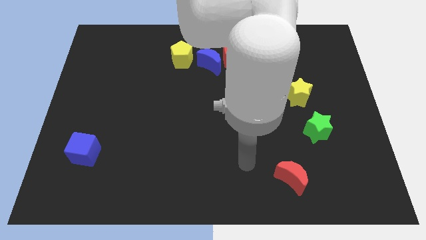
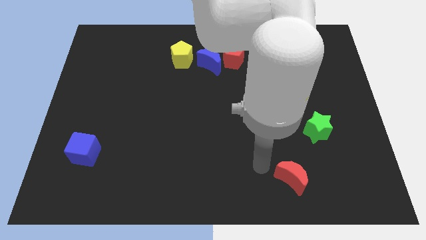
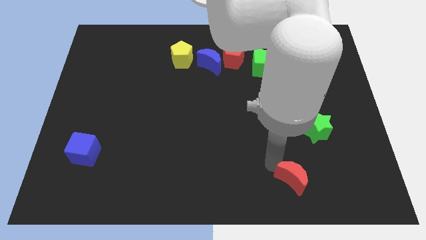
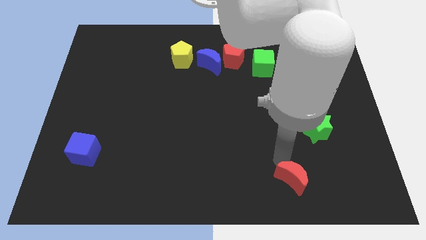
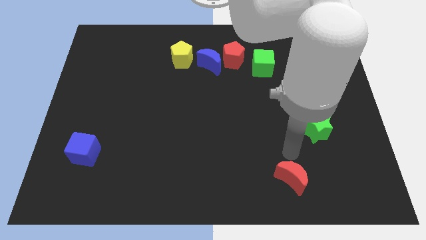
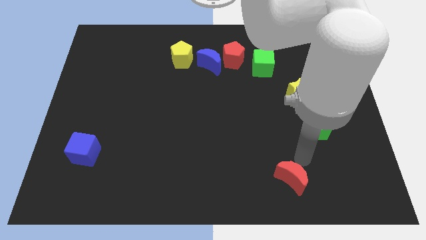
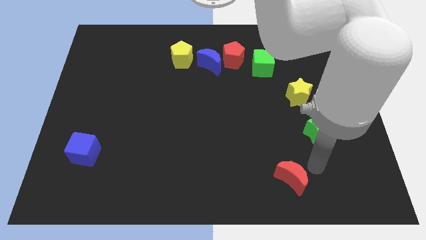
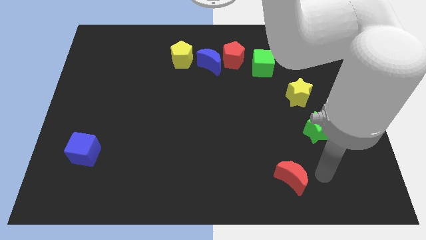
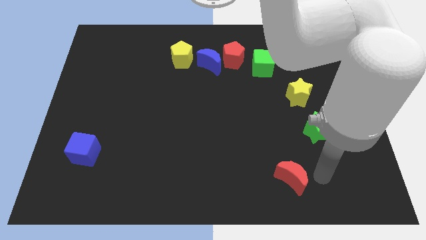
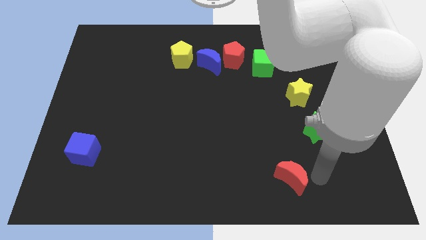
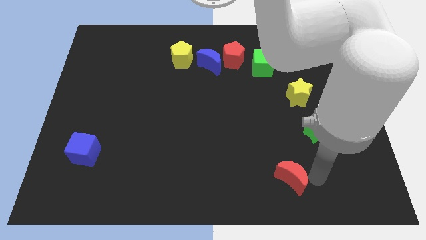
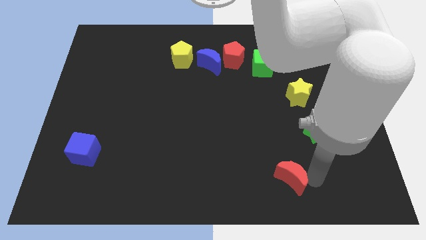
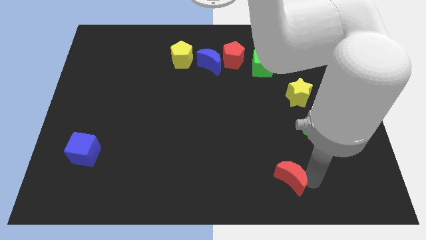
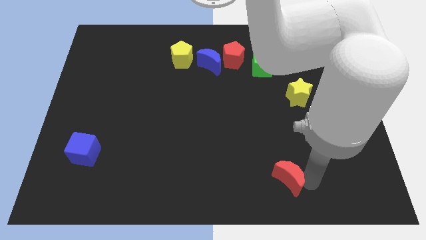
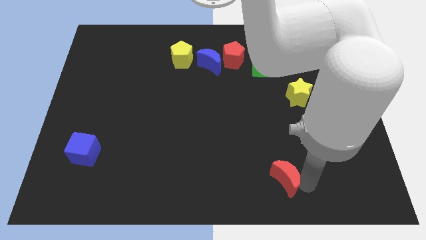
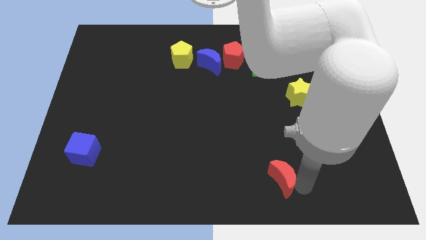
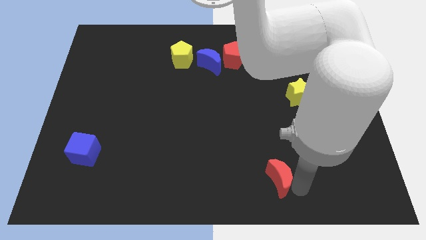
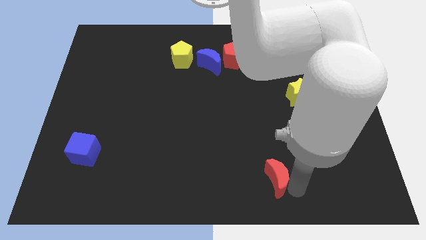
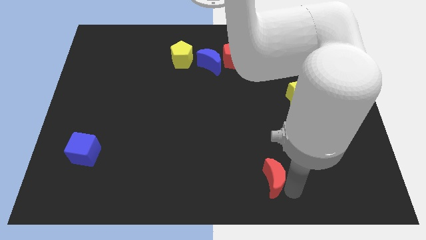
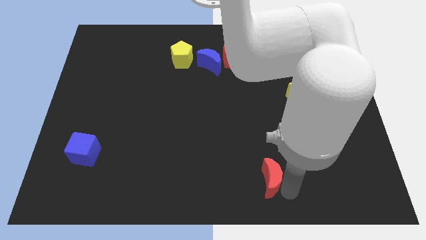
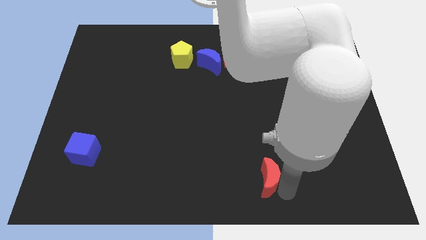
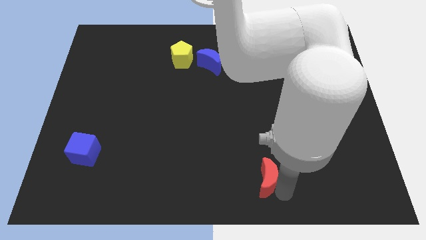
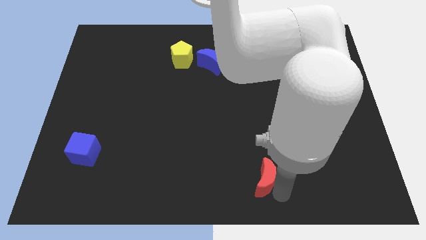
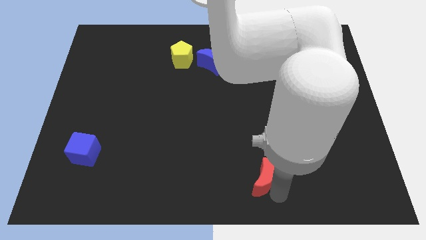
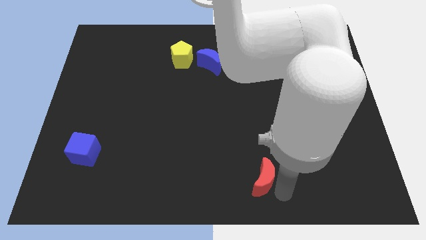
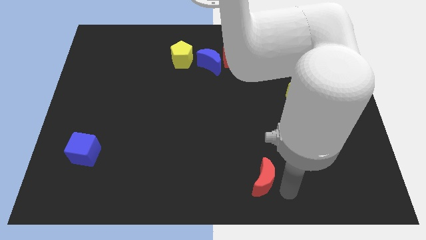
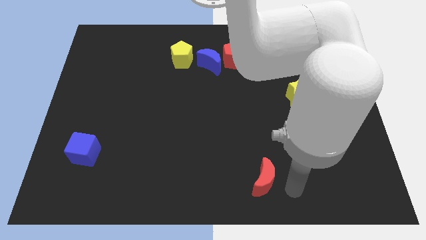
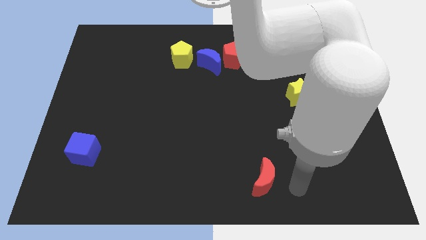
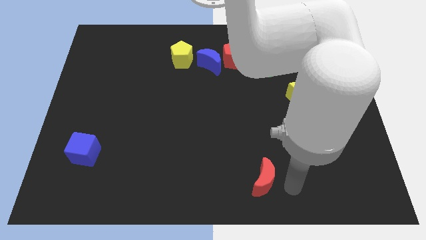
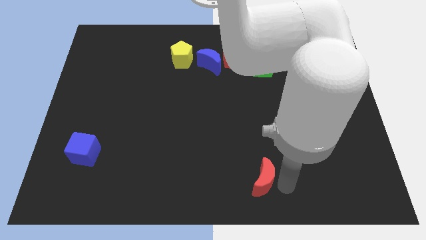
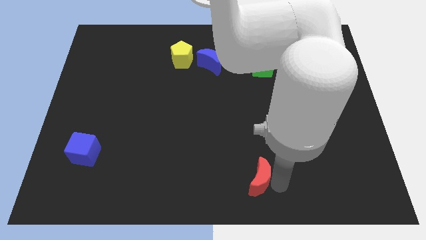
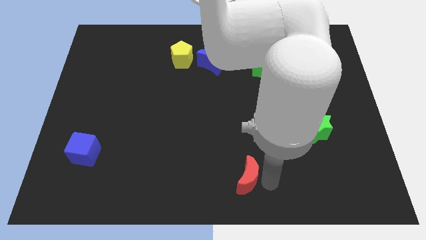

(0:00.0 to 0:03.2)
slide the red moon somewhat left

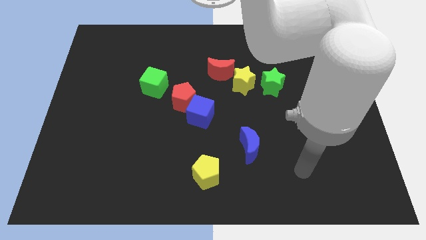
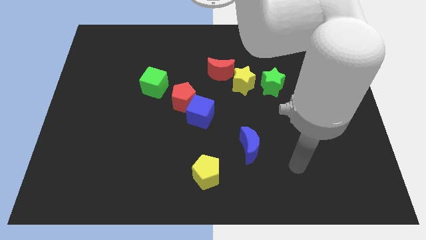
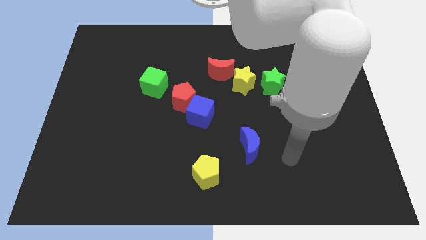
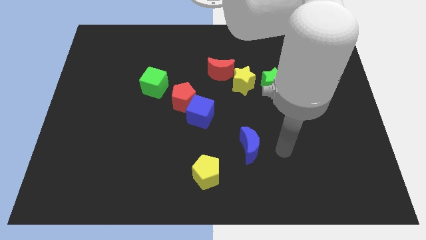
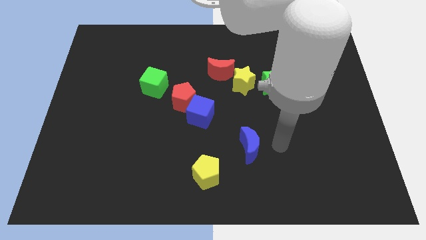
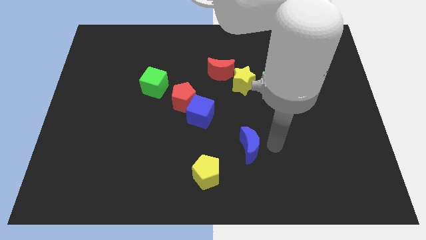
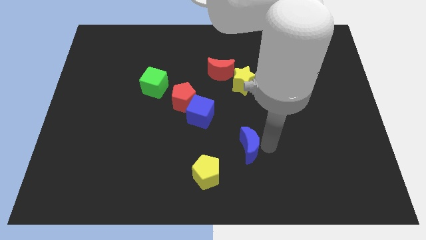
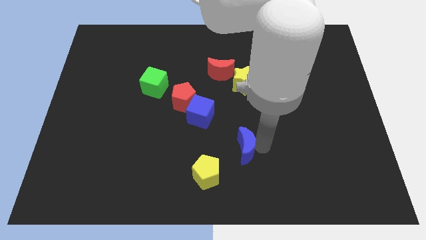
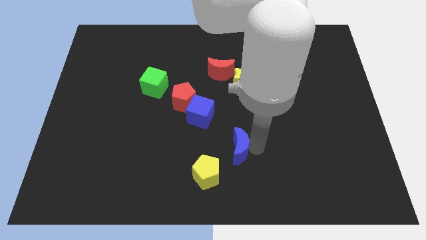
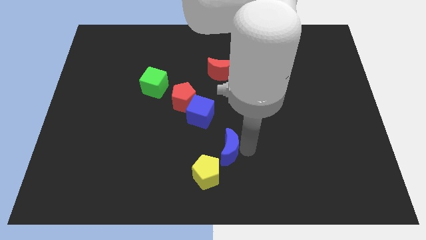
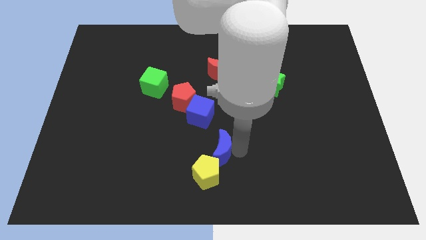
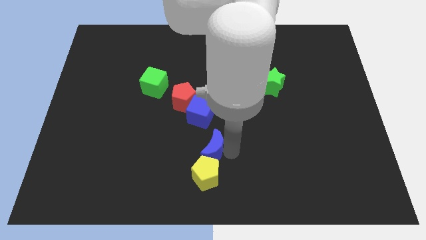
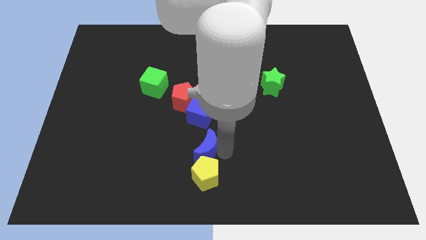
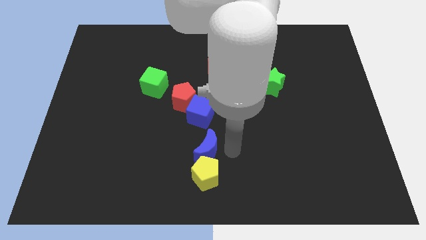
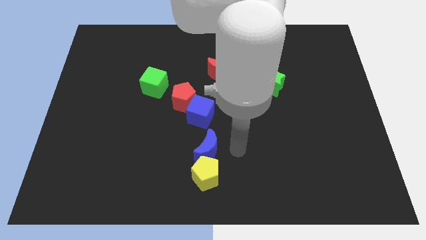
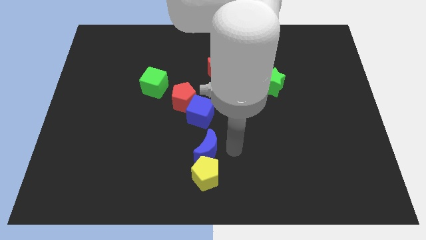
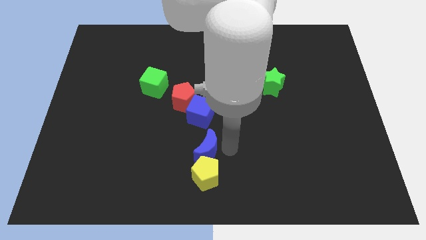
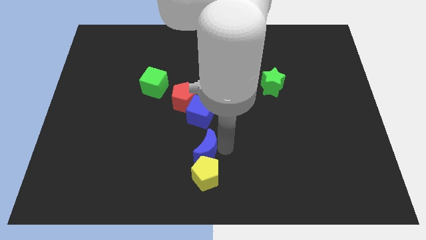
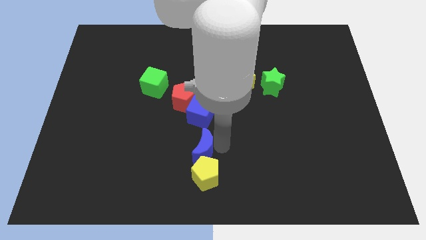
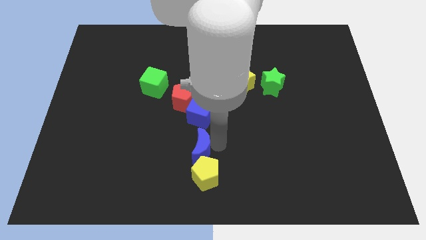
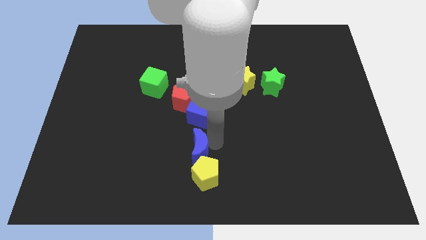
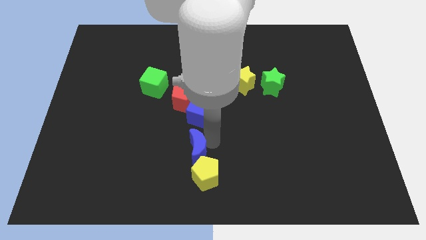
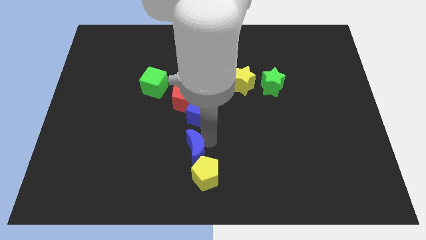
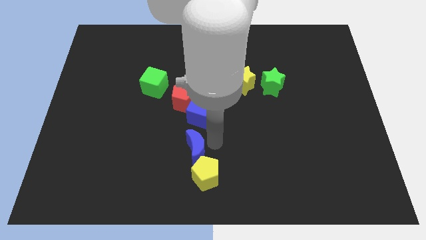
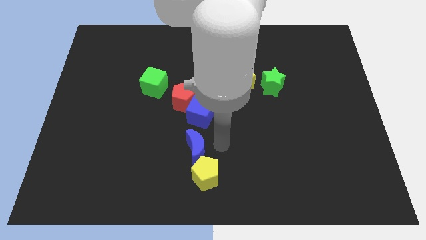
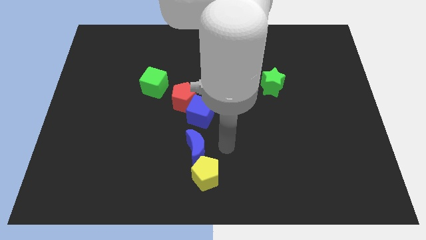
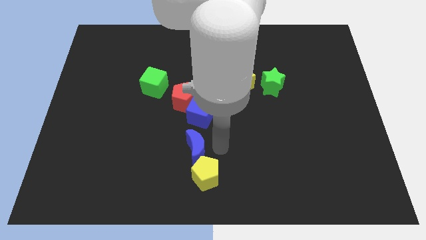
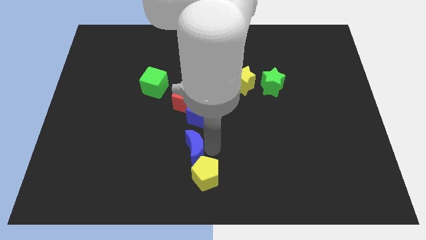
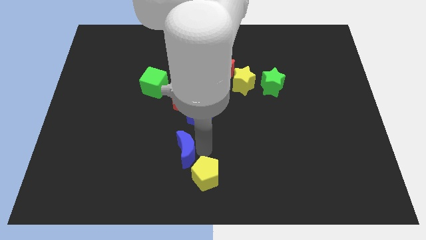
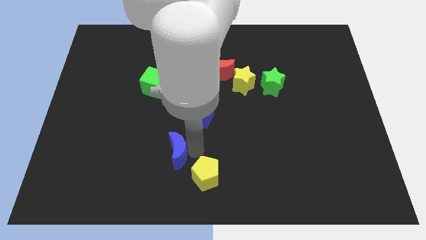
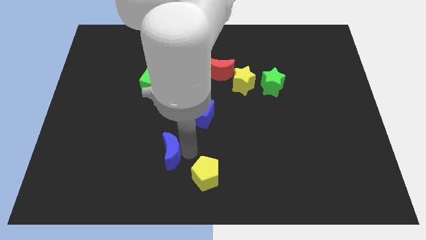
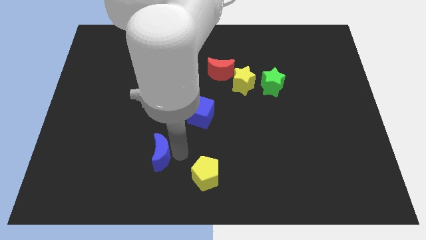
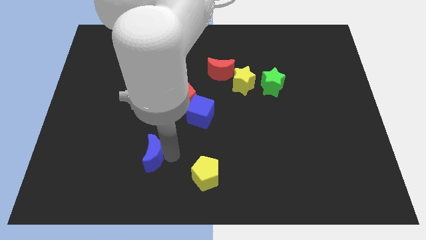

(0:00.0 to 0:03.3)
move the blue moon left

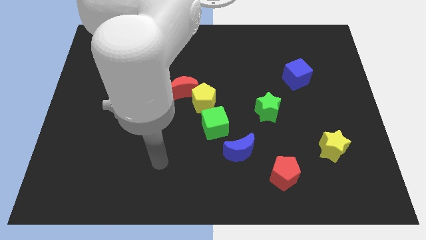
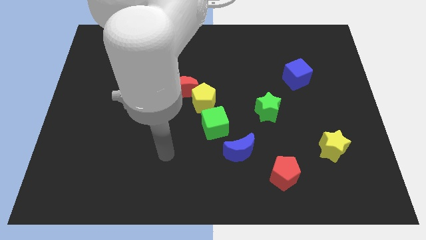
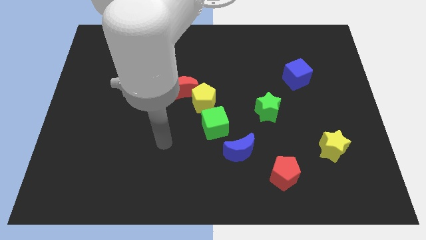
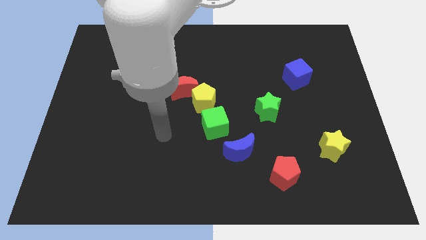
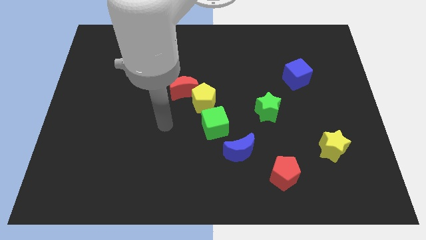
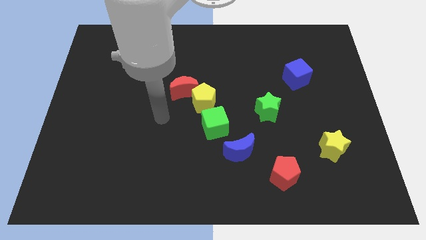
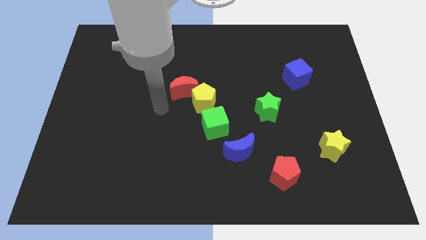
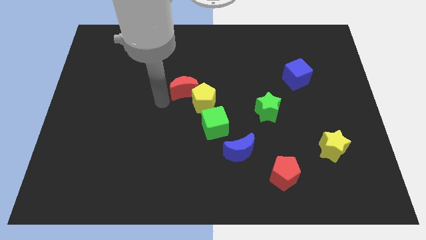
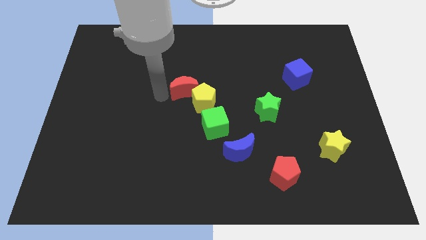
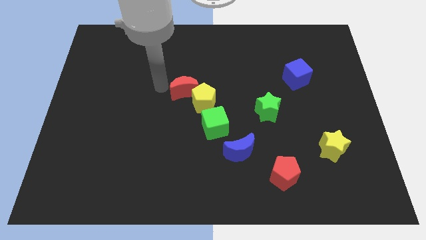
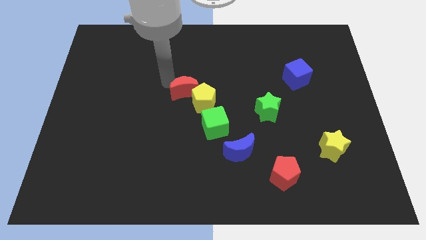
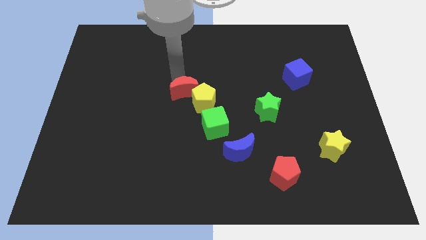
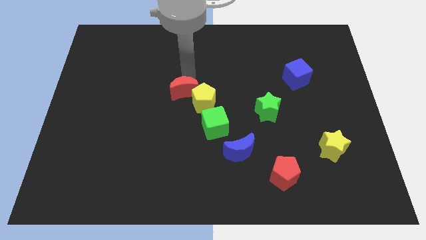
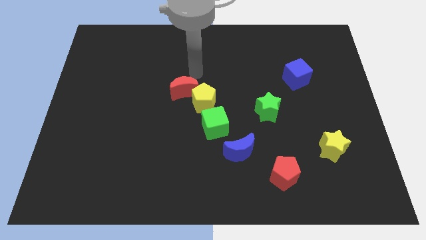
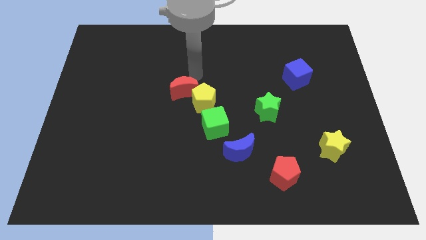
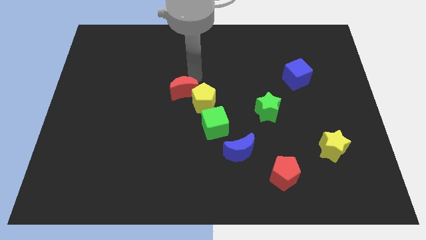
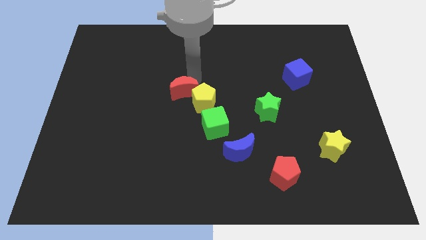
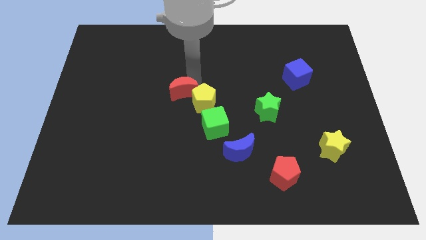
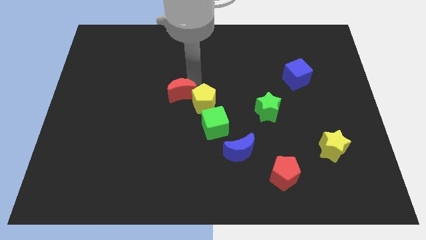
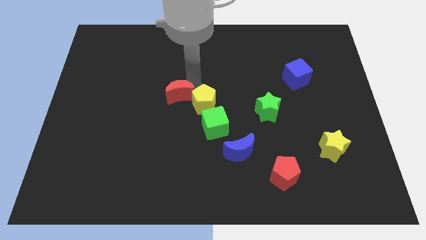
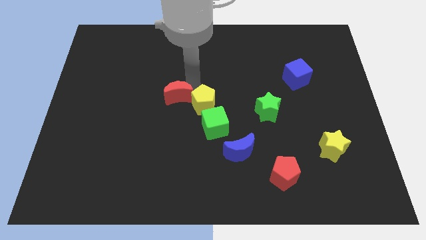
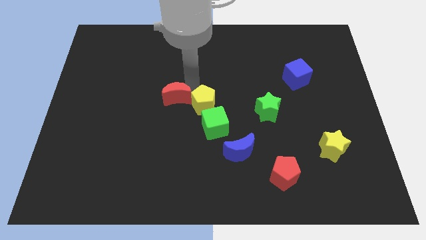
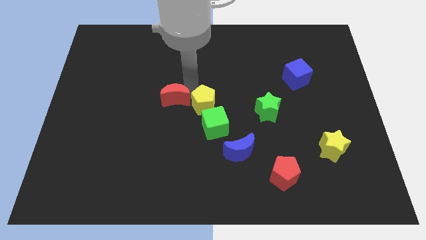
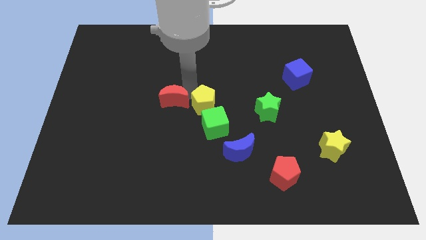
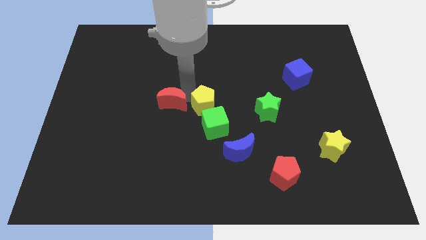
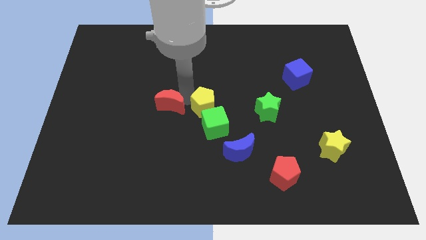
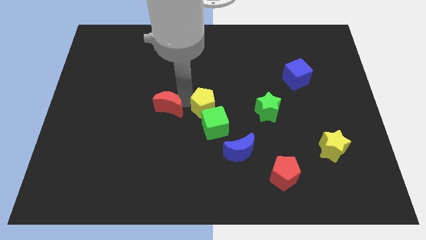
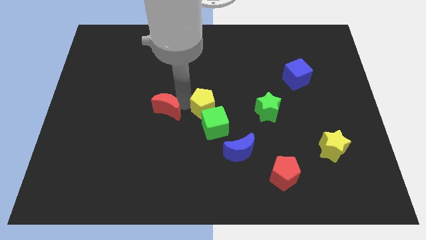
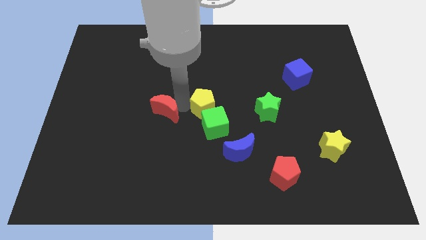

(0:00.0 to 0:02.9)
slide the red moon diagonally downwards and left slightly
